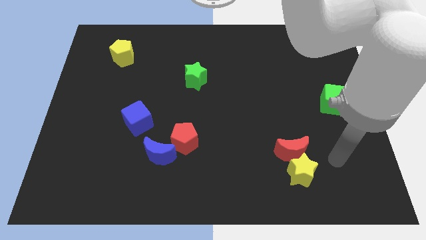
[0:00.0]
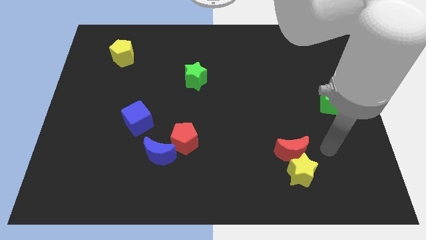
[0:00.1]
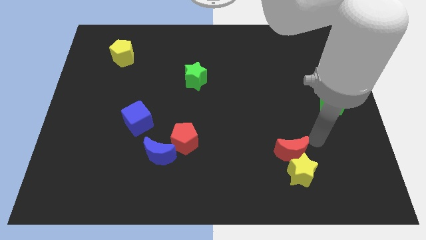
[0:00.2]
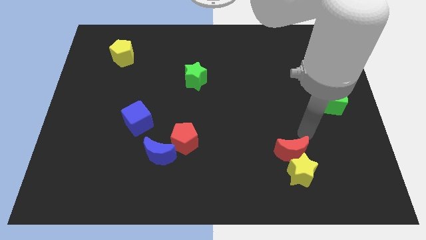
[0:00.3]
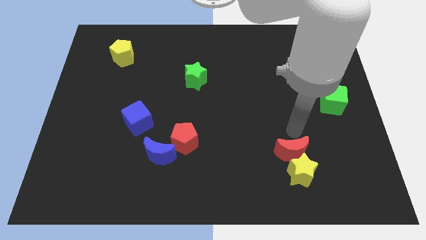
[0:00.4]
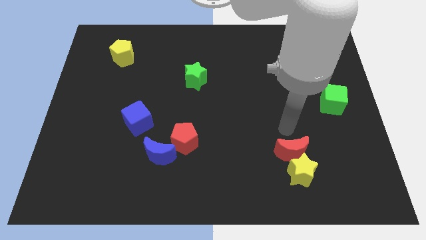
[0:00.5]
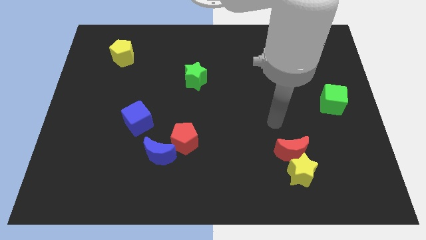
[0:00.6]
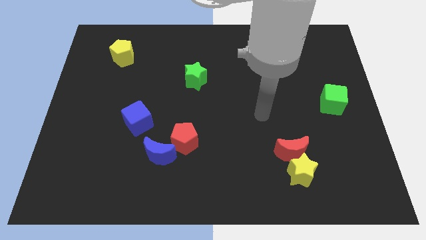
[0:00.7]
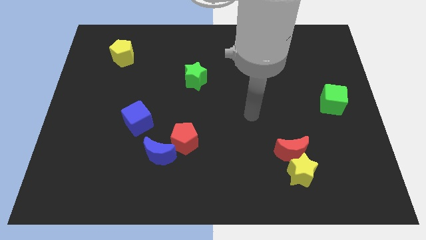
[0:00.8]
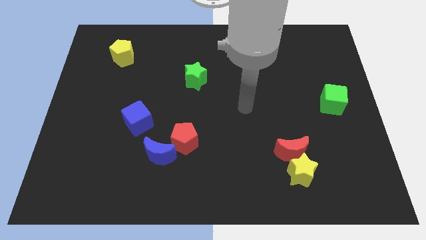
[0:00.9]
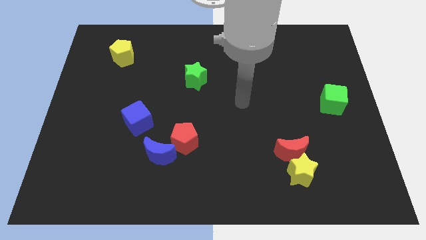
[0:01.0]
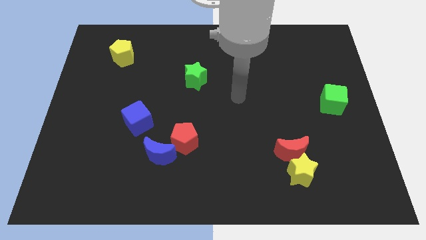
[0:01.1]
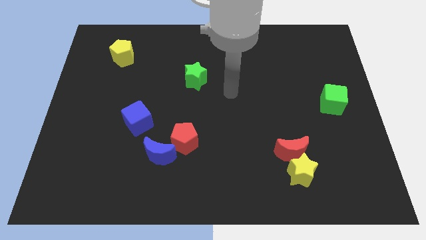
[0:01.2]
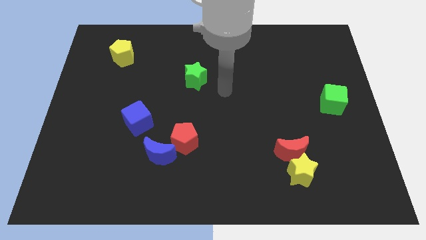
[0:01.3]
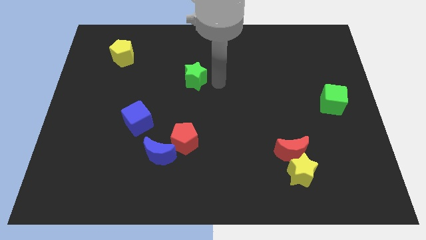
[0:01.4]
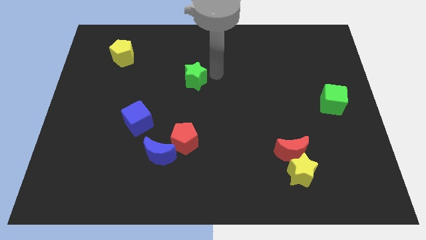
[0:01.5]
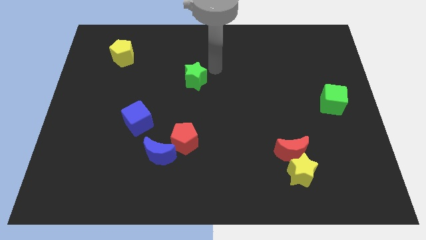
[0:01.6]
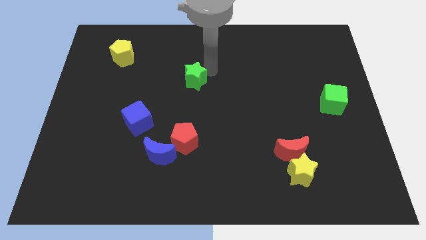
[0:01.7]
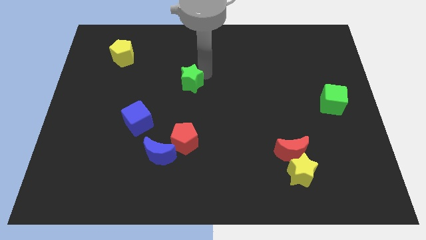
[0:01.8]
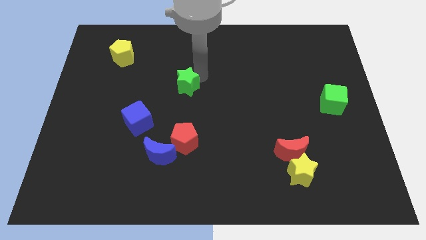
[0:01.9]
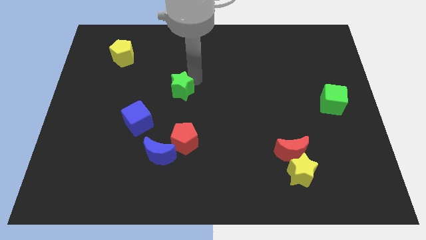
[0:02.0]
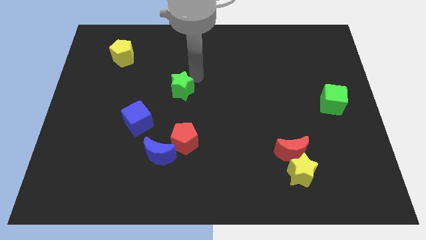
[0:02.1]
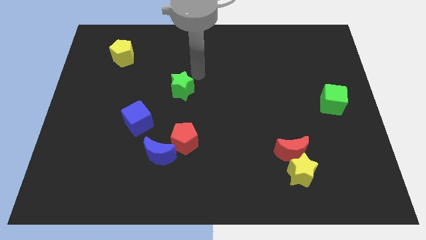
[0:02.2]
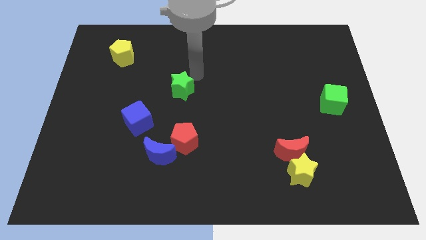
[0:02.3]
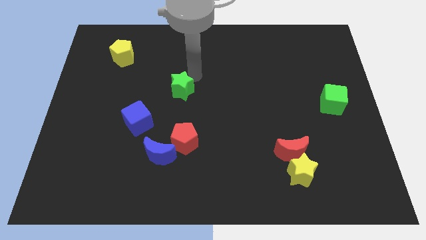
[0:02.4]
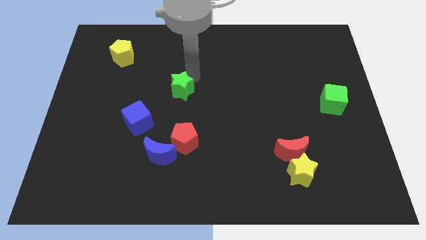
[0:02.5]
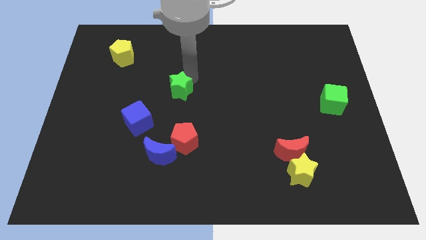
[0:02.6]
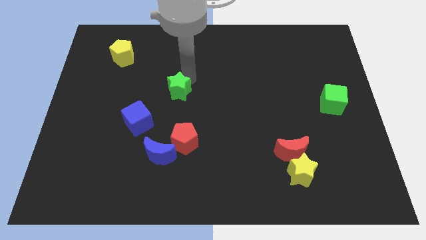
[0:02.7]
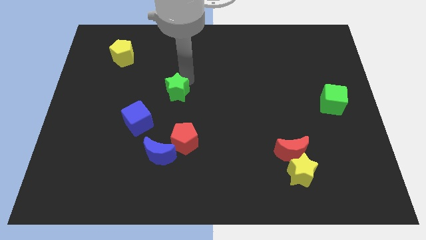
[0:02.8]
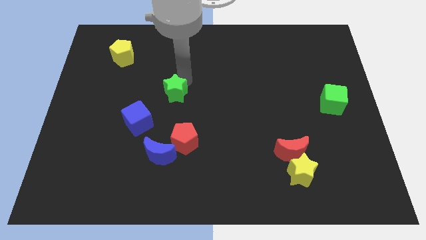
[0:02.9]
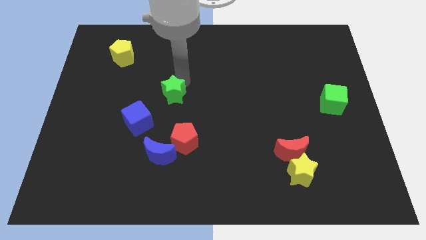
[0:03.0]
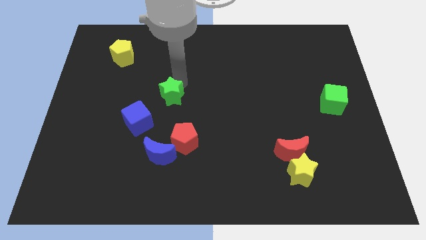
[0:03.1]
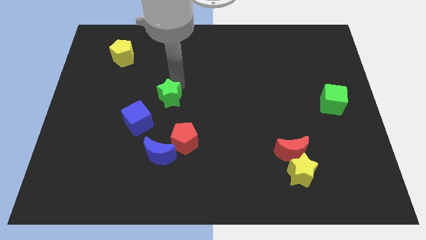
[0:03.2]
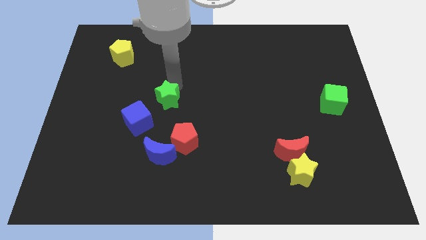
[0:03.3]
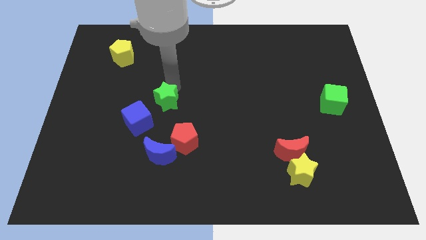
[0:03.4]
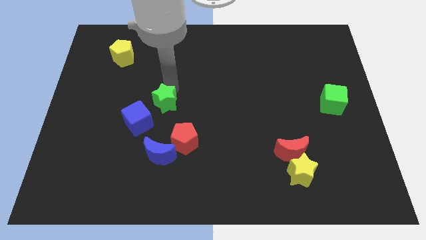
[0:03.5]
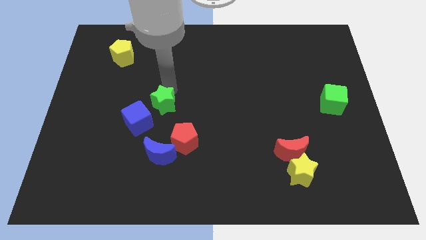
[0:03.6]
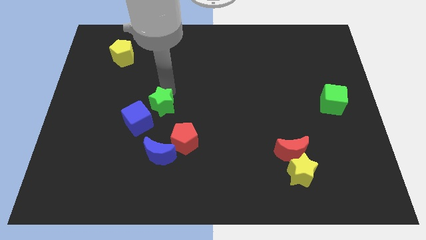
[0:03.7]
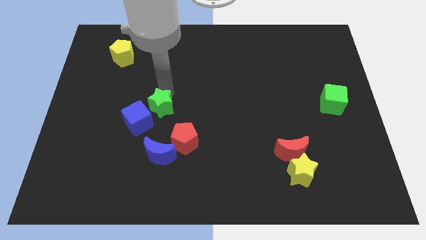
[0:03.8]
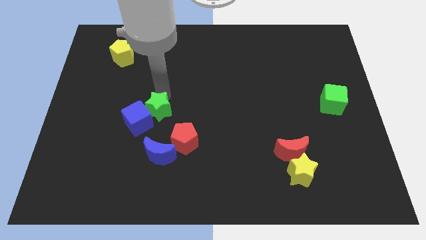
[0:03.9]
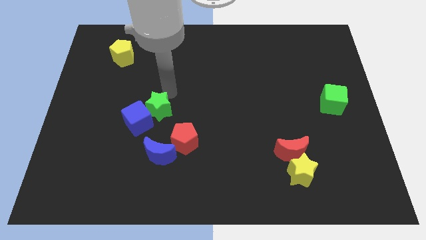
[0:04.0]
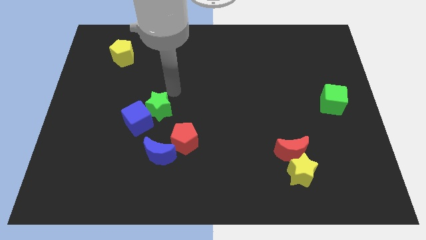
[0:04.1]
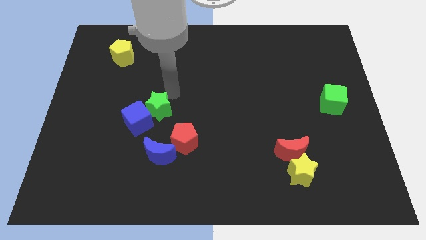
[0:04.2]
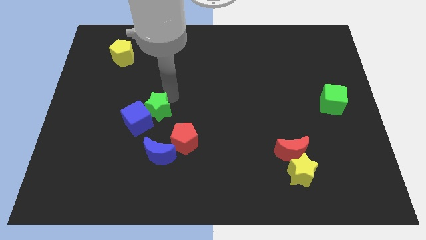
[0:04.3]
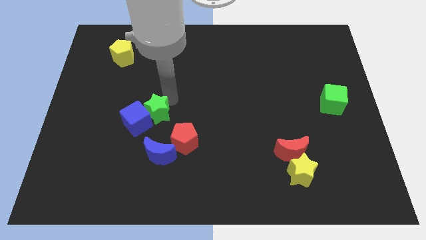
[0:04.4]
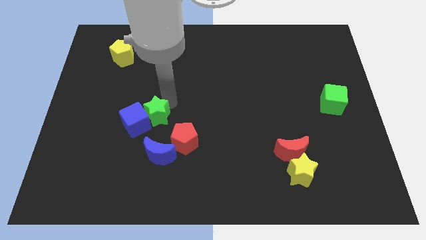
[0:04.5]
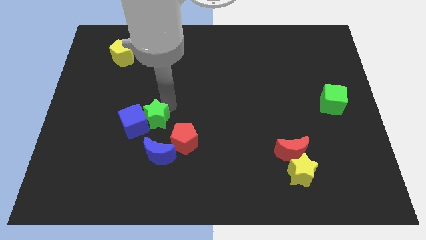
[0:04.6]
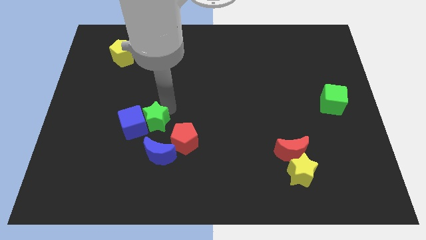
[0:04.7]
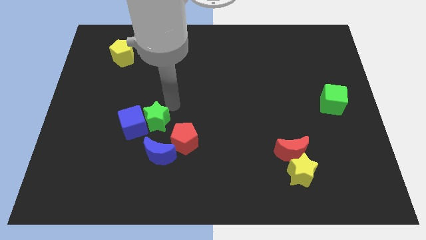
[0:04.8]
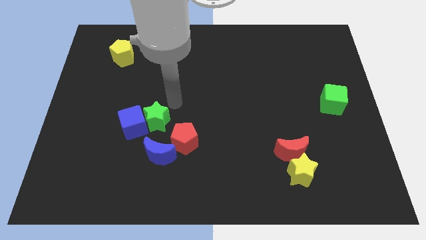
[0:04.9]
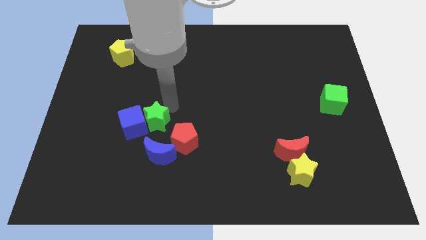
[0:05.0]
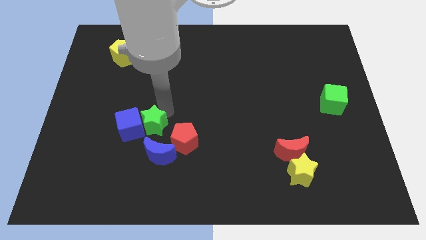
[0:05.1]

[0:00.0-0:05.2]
slide the green star just left of the red pentagon

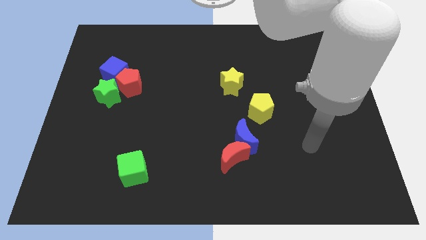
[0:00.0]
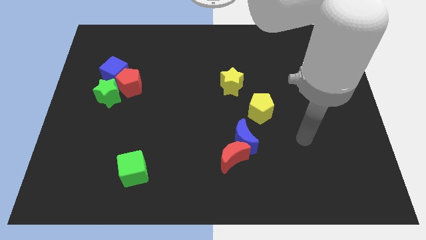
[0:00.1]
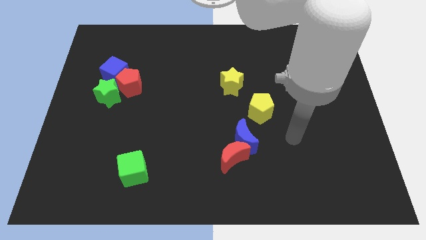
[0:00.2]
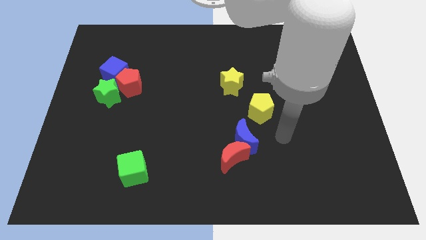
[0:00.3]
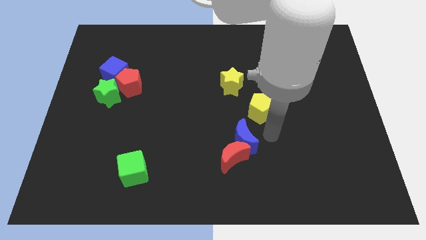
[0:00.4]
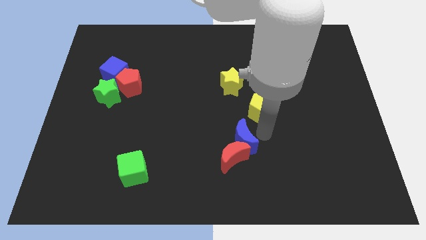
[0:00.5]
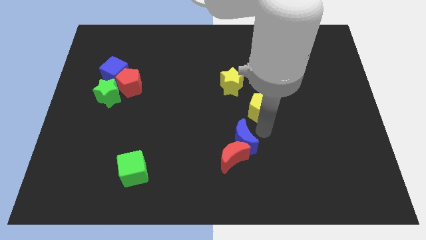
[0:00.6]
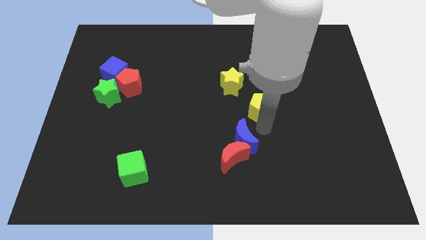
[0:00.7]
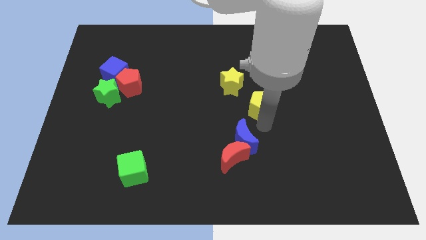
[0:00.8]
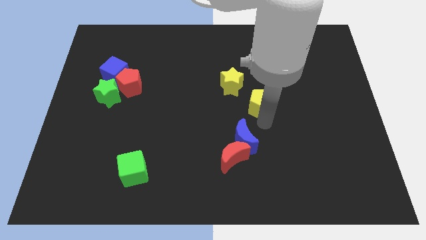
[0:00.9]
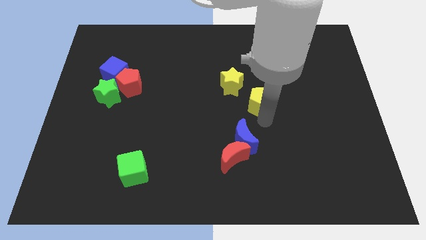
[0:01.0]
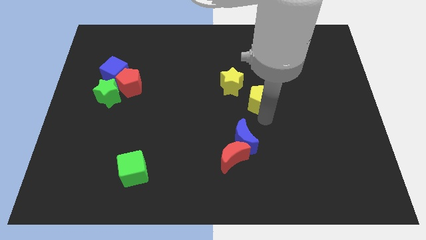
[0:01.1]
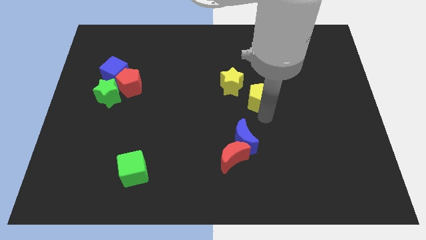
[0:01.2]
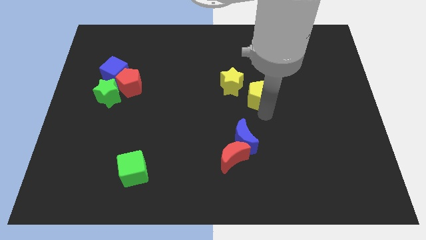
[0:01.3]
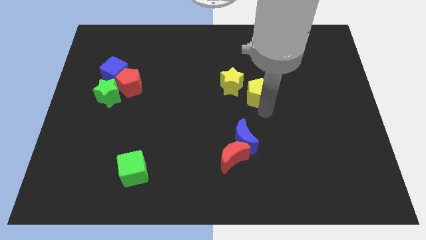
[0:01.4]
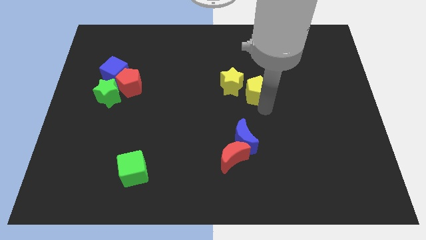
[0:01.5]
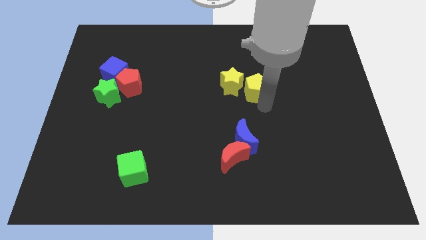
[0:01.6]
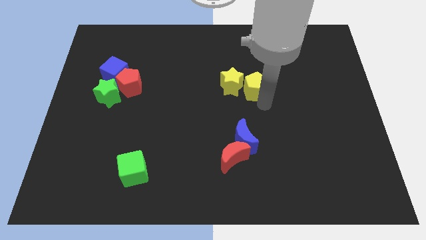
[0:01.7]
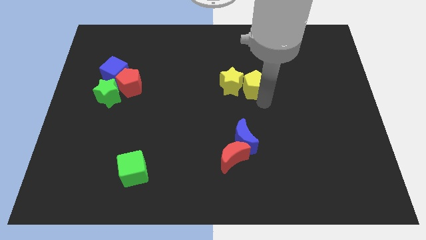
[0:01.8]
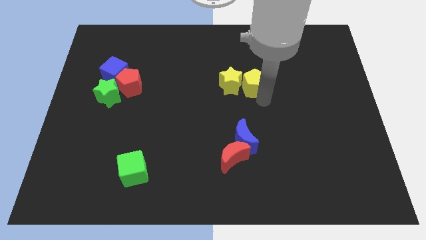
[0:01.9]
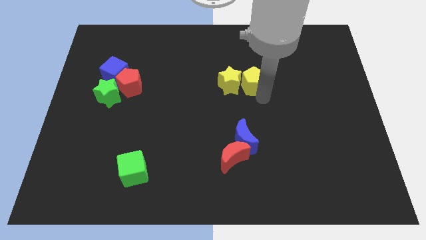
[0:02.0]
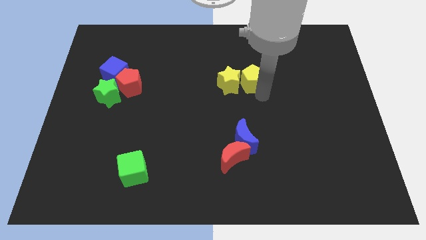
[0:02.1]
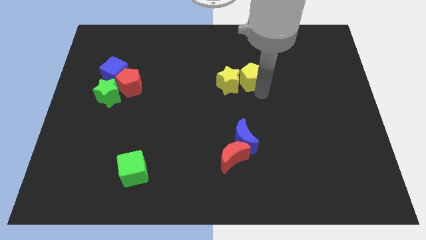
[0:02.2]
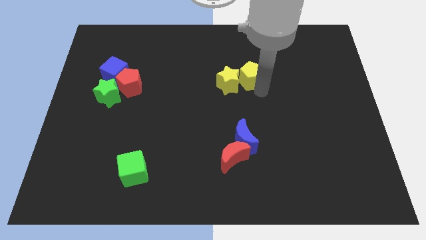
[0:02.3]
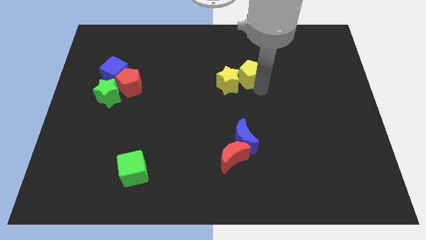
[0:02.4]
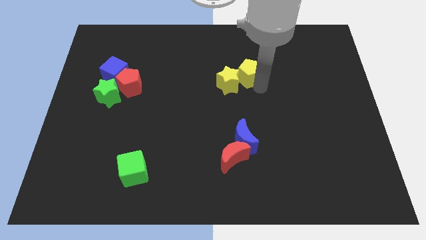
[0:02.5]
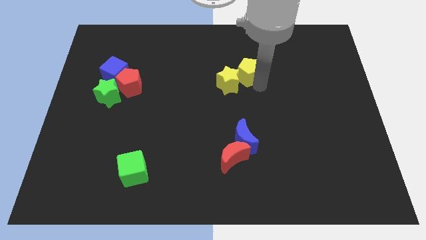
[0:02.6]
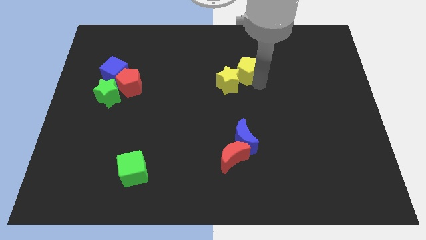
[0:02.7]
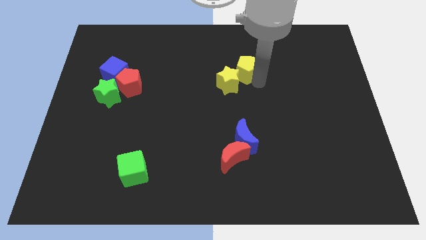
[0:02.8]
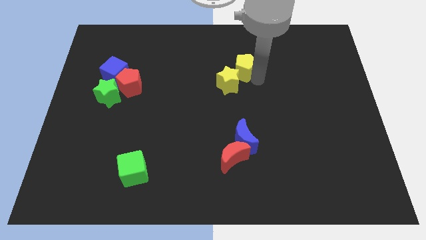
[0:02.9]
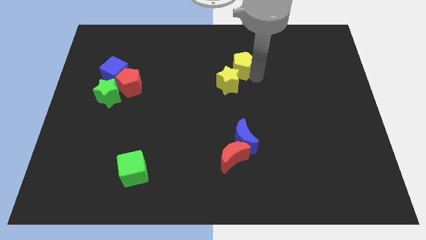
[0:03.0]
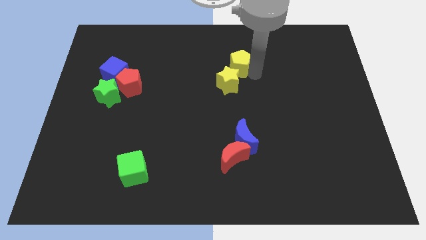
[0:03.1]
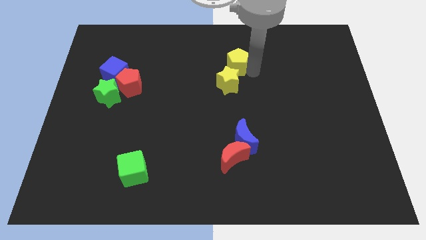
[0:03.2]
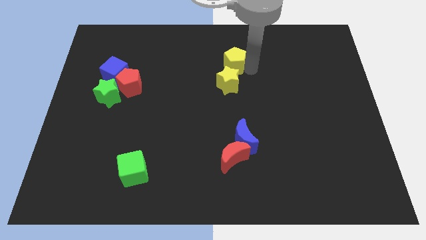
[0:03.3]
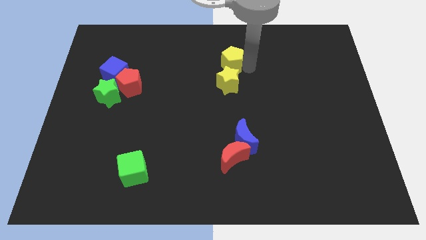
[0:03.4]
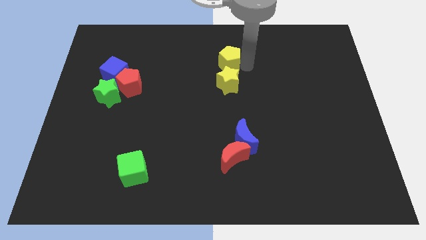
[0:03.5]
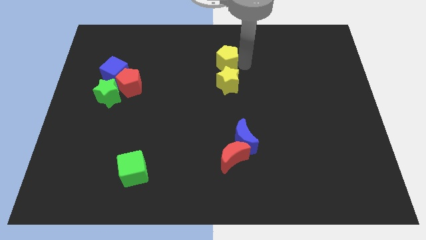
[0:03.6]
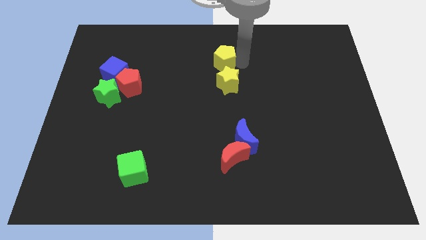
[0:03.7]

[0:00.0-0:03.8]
slide the yellow pentagon to the top left side of the yellow star
